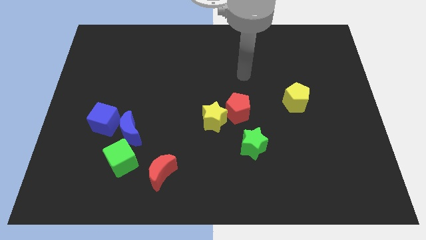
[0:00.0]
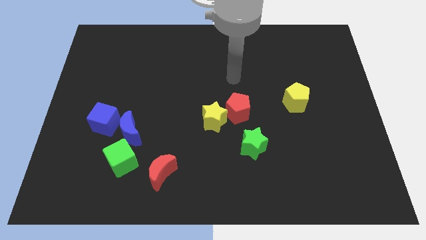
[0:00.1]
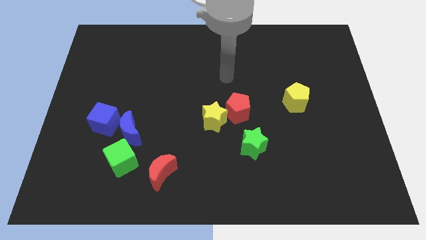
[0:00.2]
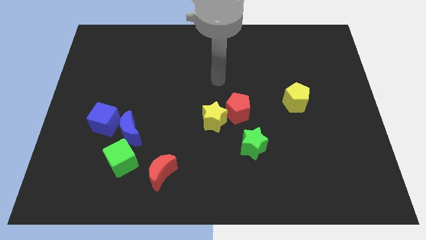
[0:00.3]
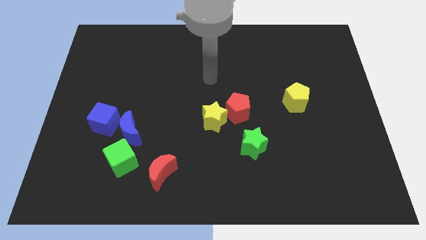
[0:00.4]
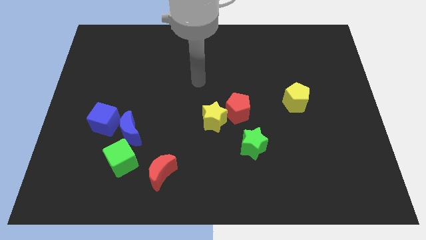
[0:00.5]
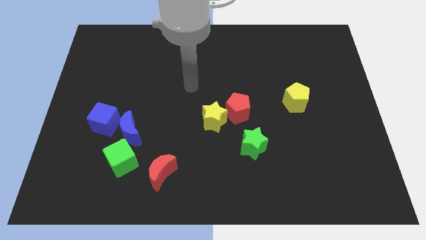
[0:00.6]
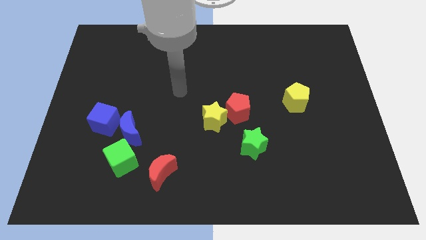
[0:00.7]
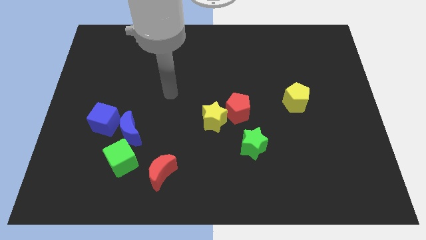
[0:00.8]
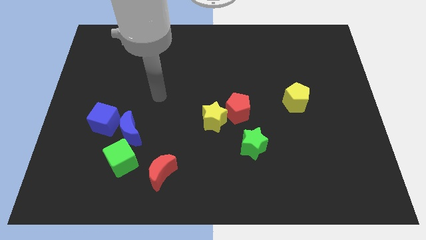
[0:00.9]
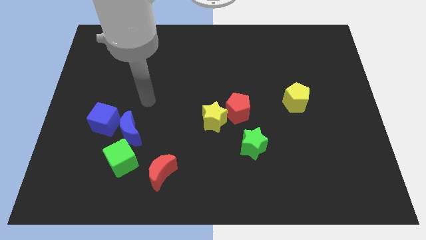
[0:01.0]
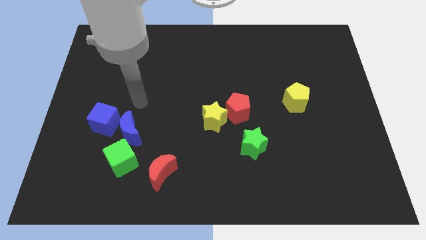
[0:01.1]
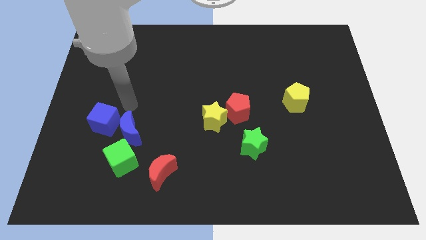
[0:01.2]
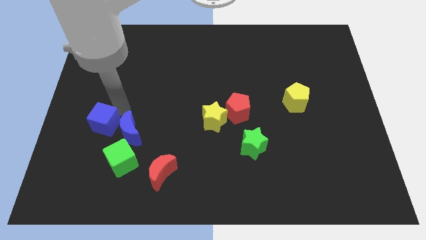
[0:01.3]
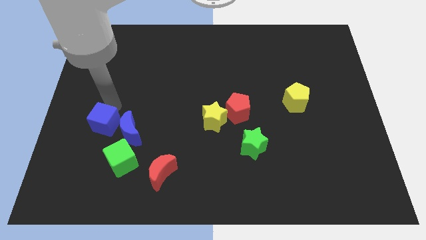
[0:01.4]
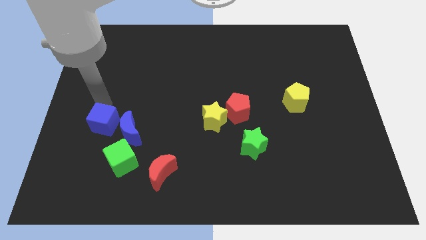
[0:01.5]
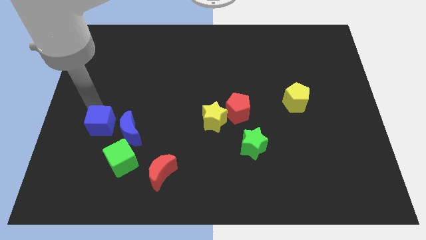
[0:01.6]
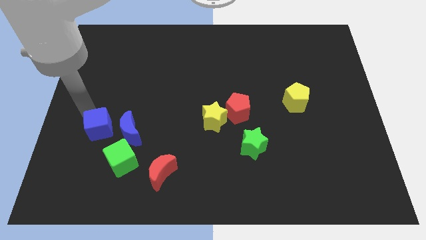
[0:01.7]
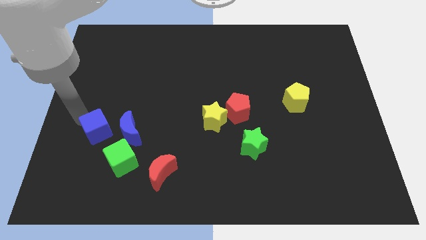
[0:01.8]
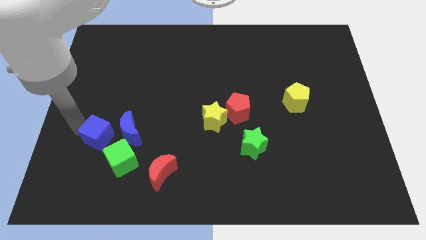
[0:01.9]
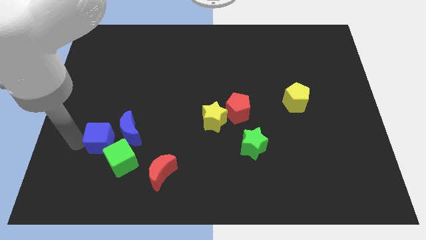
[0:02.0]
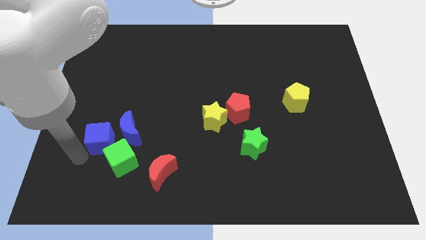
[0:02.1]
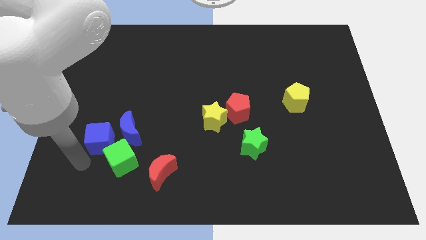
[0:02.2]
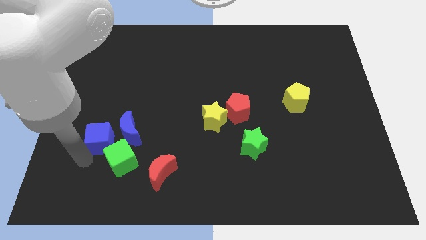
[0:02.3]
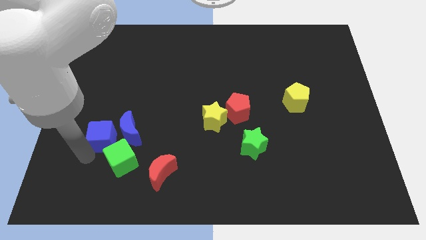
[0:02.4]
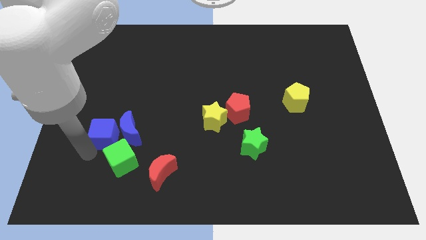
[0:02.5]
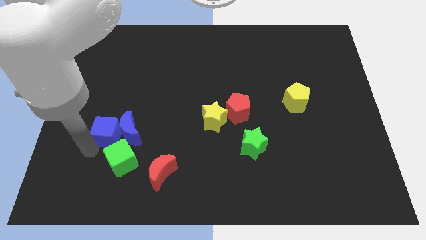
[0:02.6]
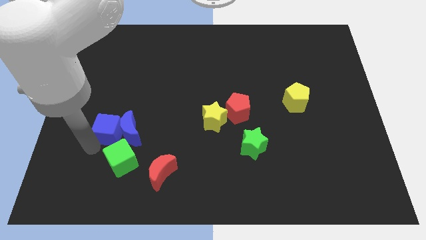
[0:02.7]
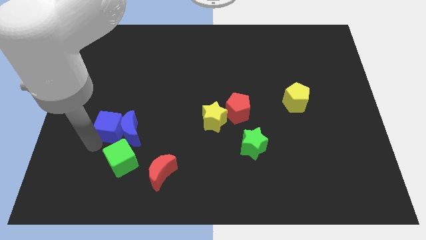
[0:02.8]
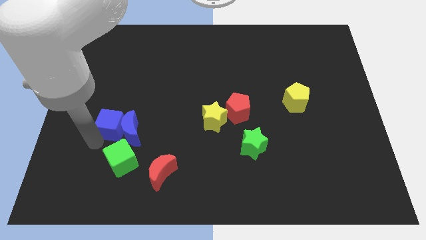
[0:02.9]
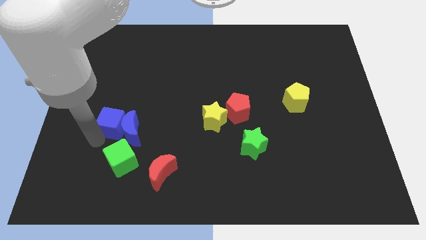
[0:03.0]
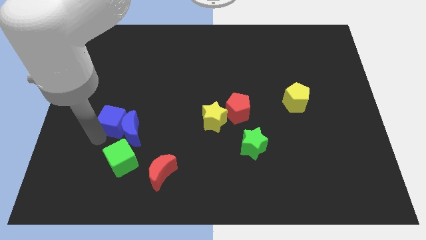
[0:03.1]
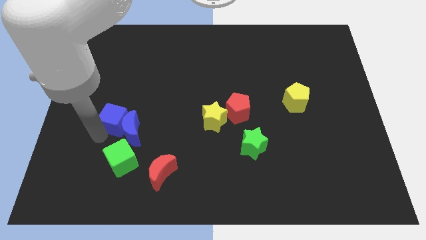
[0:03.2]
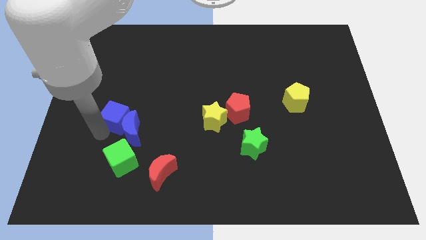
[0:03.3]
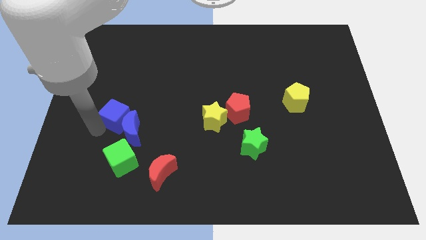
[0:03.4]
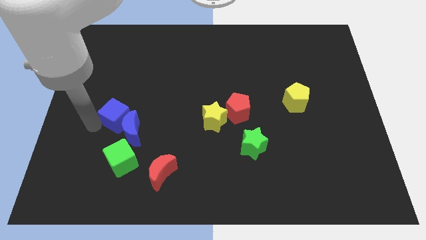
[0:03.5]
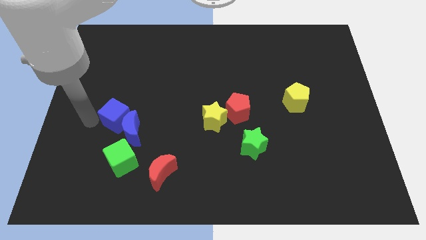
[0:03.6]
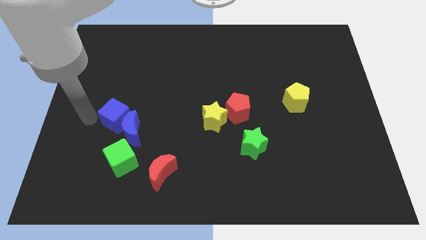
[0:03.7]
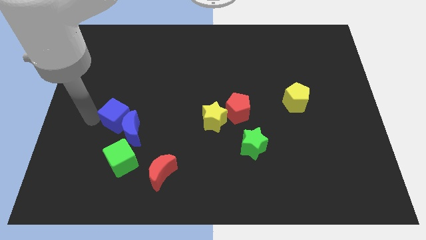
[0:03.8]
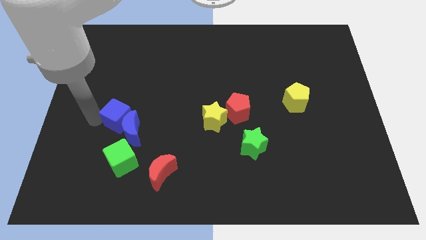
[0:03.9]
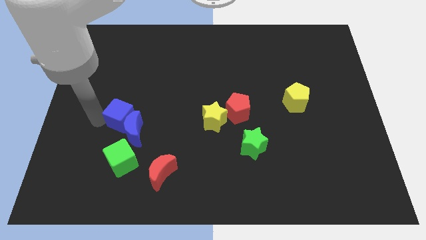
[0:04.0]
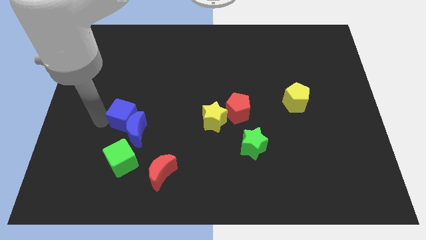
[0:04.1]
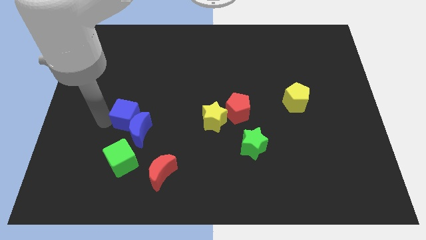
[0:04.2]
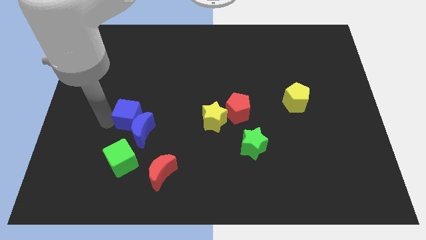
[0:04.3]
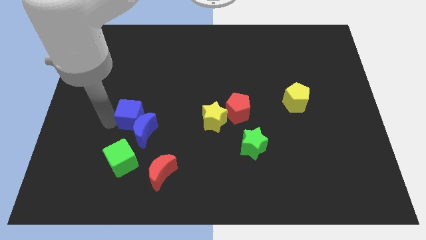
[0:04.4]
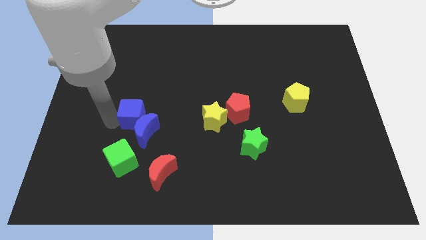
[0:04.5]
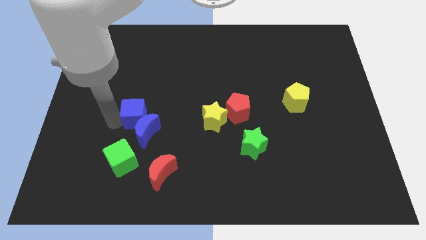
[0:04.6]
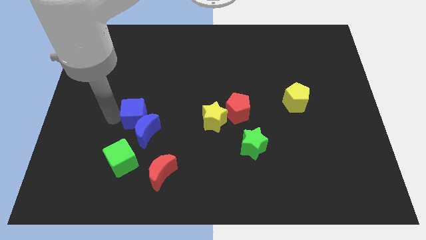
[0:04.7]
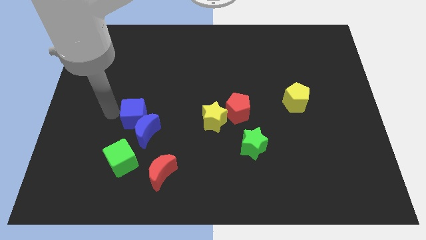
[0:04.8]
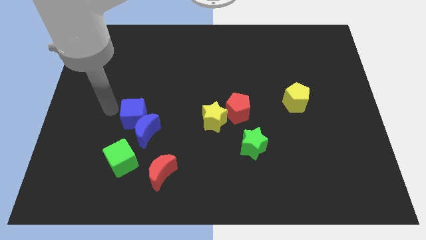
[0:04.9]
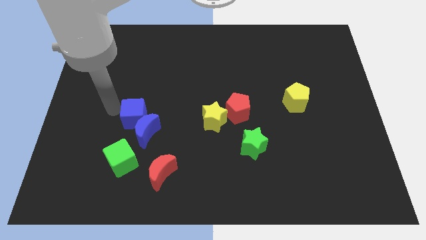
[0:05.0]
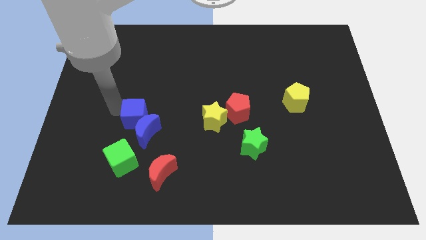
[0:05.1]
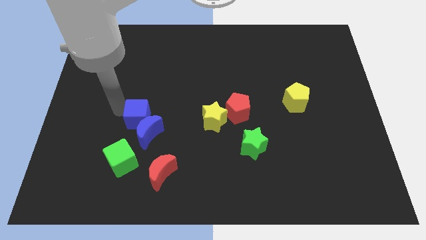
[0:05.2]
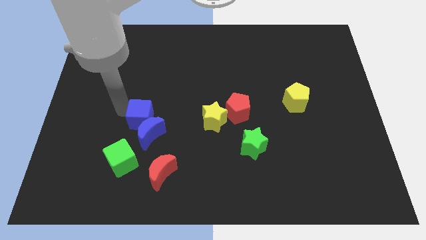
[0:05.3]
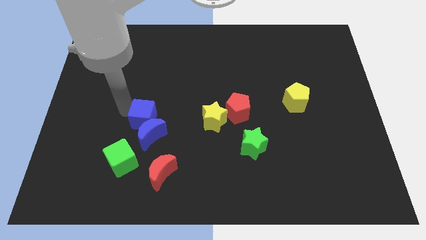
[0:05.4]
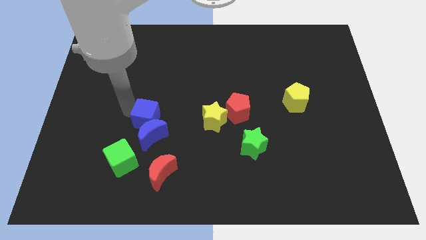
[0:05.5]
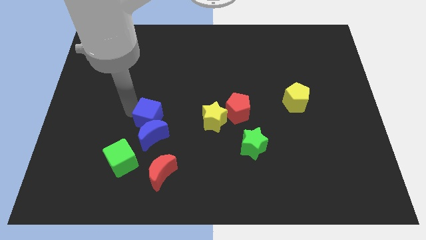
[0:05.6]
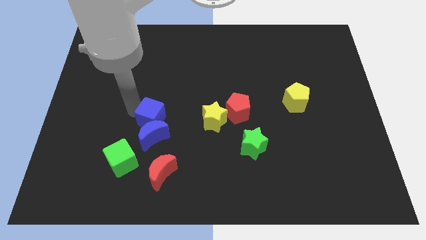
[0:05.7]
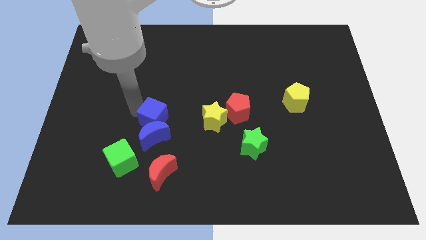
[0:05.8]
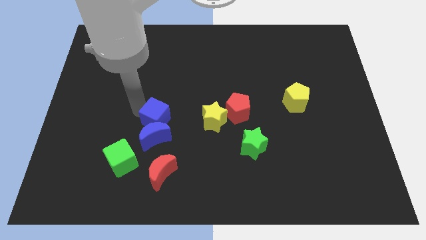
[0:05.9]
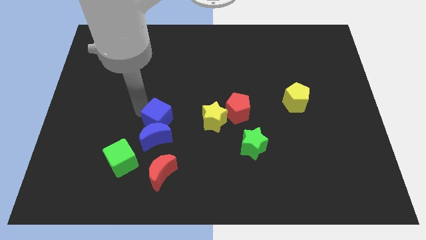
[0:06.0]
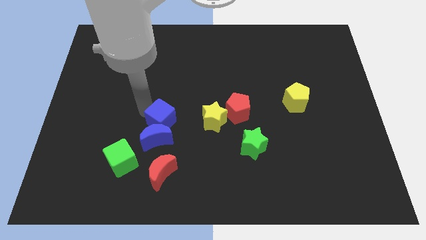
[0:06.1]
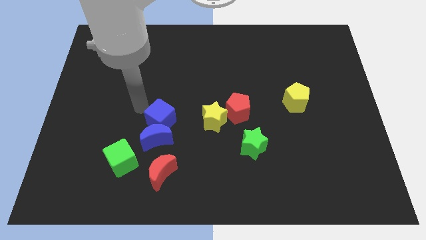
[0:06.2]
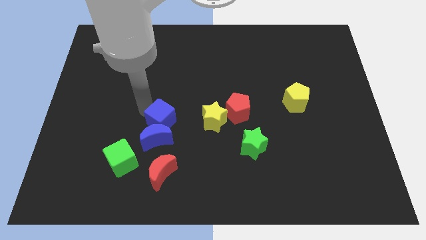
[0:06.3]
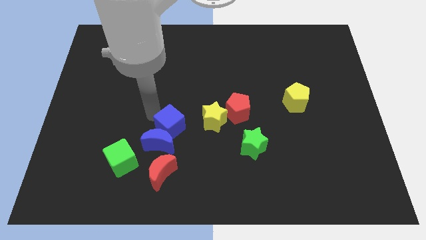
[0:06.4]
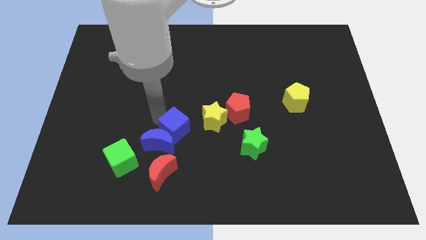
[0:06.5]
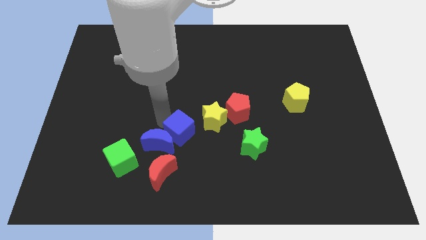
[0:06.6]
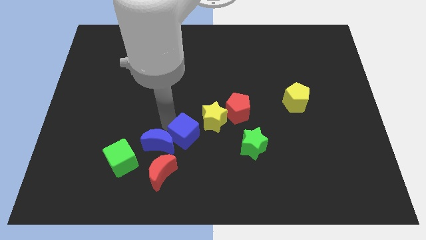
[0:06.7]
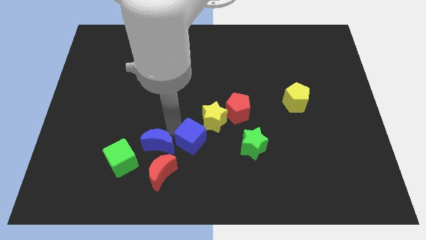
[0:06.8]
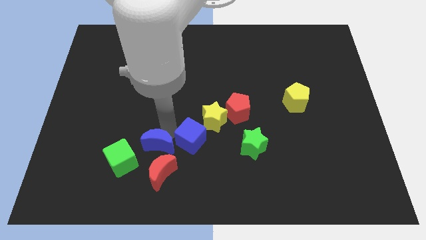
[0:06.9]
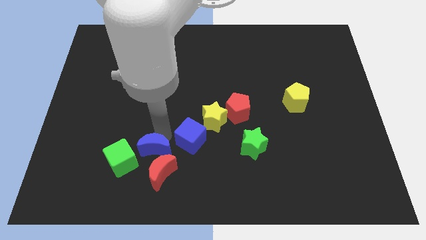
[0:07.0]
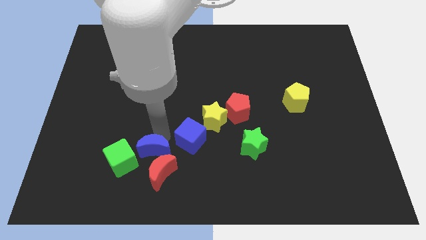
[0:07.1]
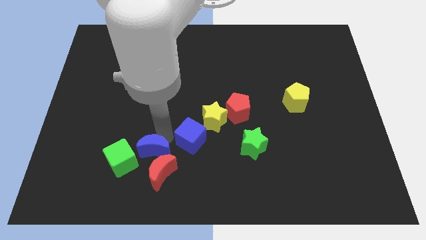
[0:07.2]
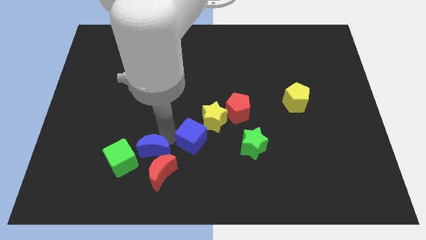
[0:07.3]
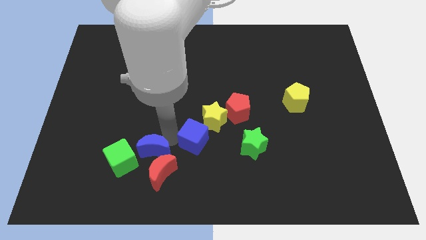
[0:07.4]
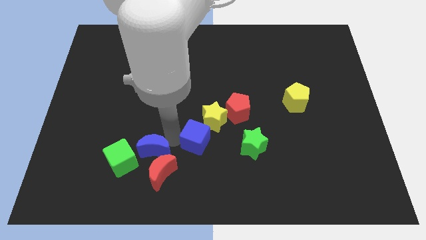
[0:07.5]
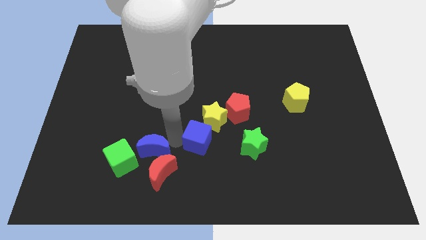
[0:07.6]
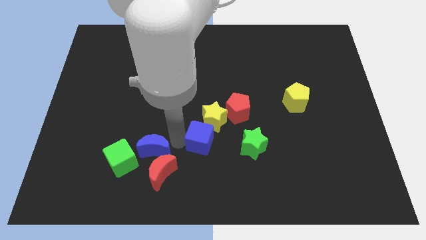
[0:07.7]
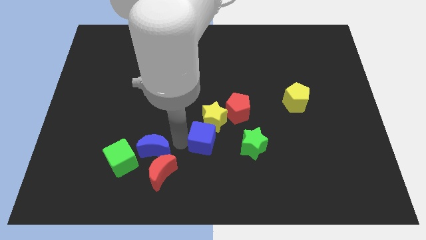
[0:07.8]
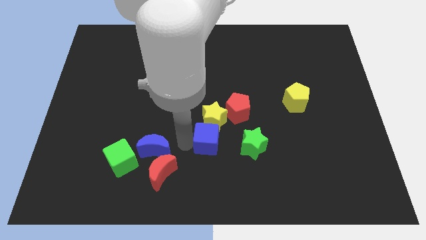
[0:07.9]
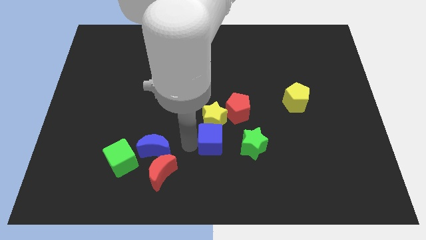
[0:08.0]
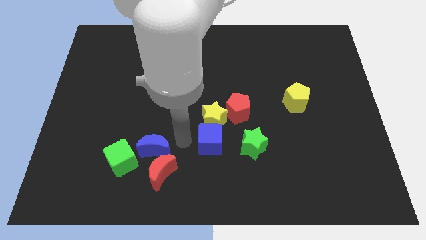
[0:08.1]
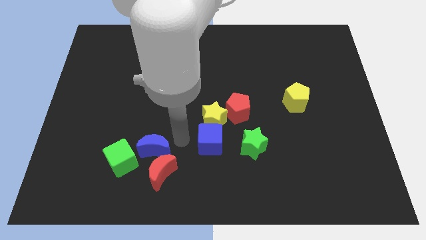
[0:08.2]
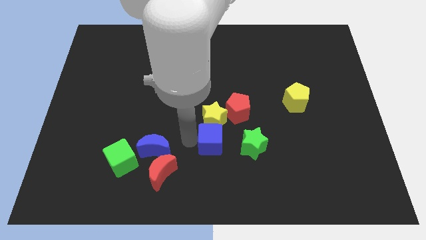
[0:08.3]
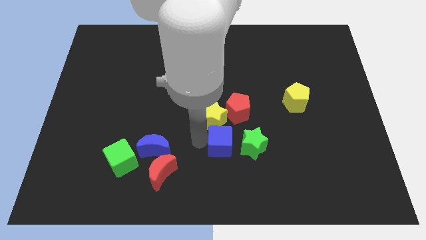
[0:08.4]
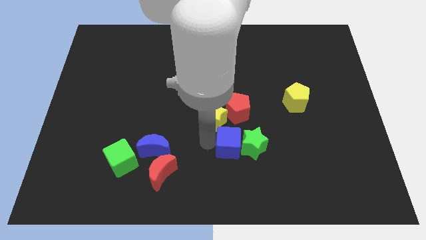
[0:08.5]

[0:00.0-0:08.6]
slide the blue cube towards the green star
